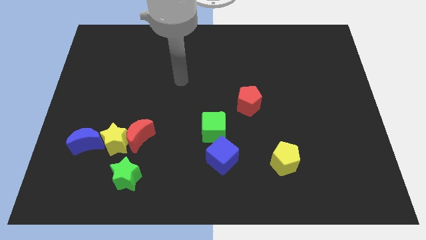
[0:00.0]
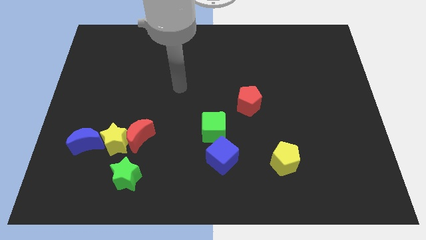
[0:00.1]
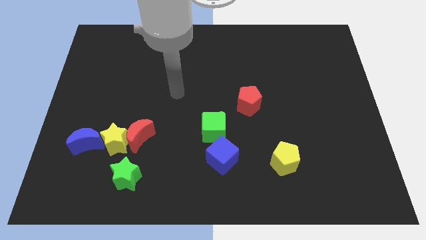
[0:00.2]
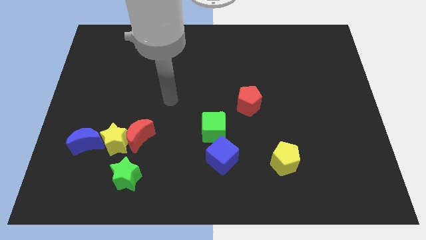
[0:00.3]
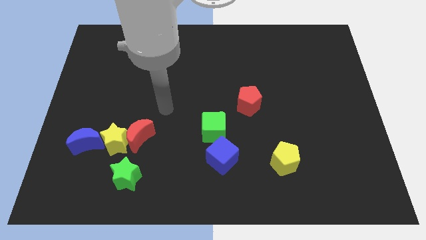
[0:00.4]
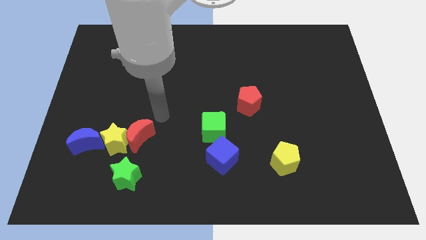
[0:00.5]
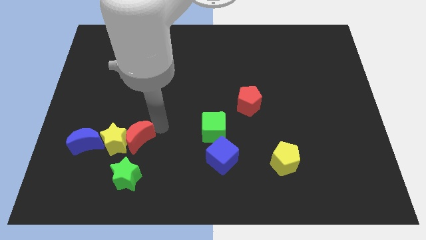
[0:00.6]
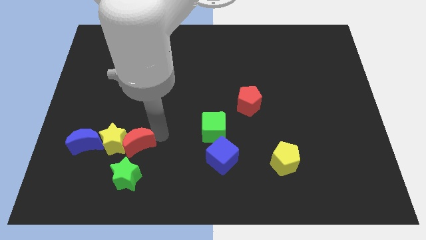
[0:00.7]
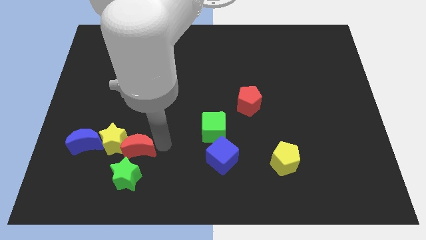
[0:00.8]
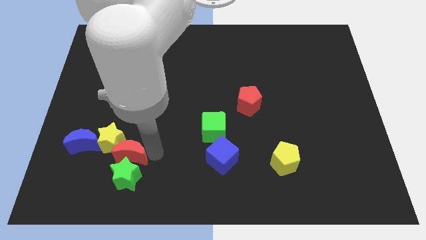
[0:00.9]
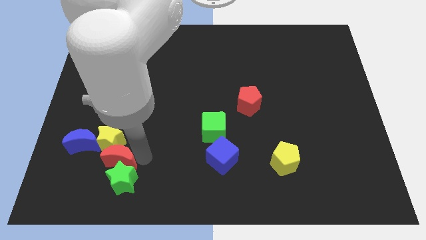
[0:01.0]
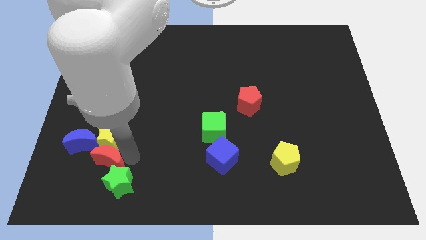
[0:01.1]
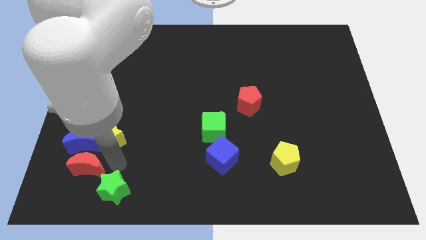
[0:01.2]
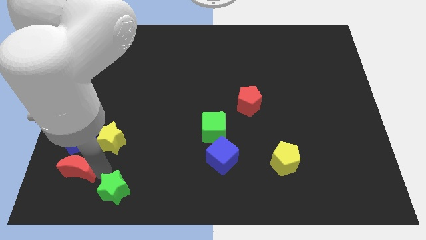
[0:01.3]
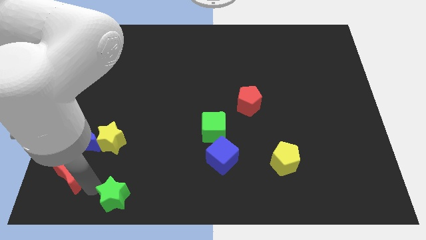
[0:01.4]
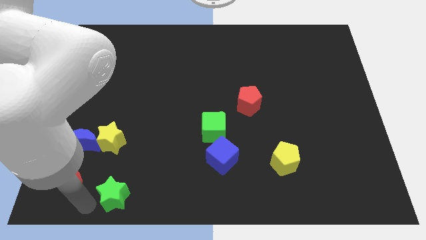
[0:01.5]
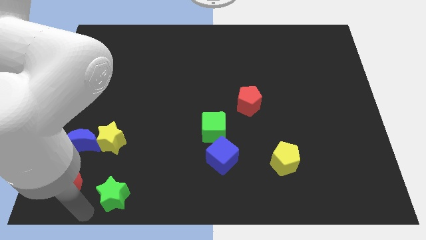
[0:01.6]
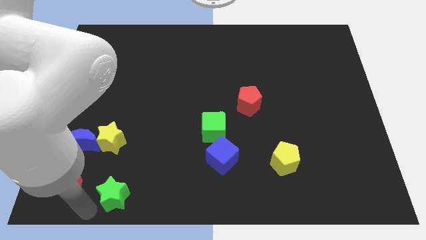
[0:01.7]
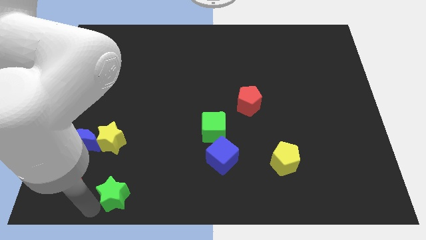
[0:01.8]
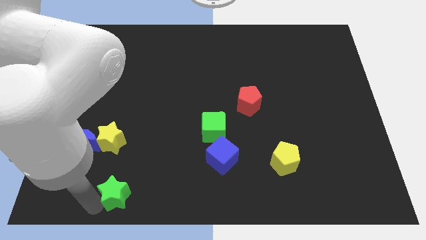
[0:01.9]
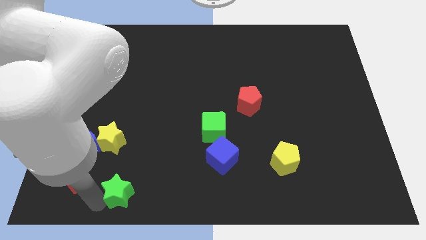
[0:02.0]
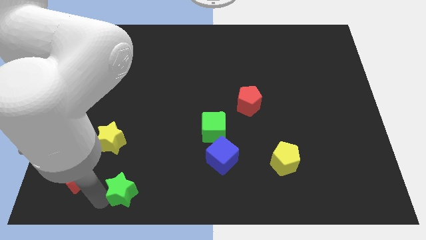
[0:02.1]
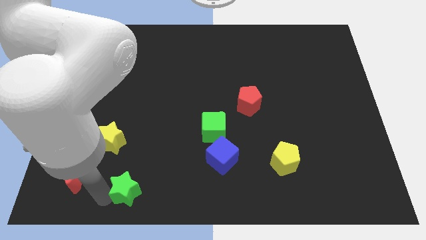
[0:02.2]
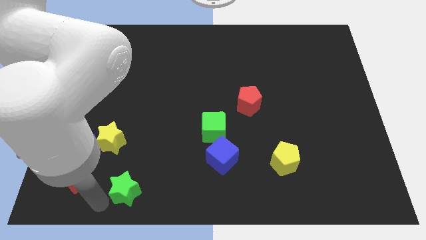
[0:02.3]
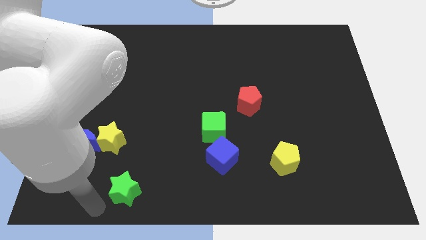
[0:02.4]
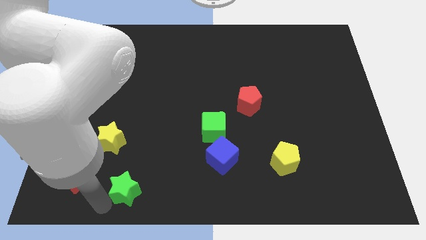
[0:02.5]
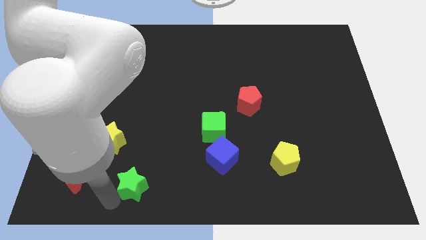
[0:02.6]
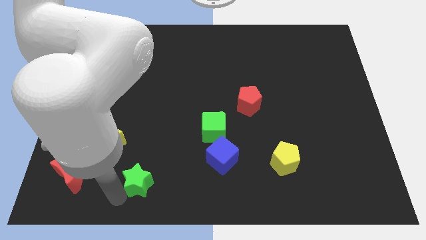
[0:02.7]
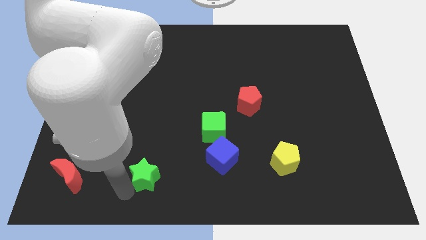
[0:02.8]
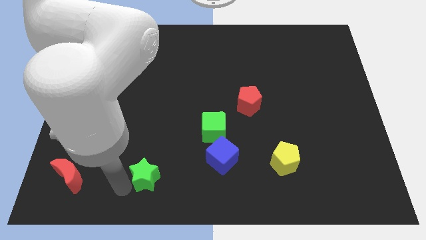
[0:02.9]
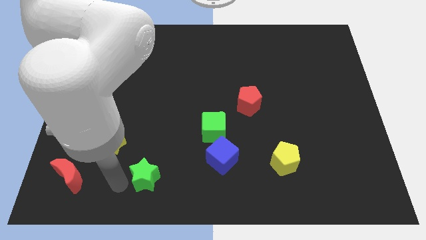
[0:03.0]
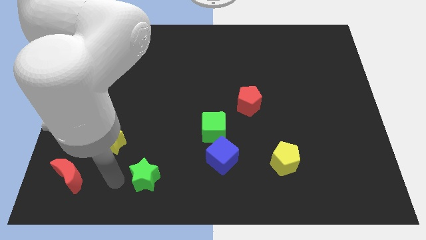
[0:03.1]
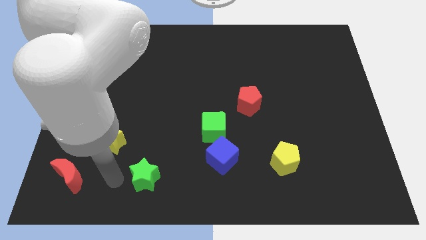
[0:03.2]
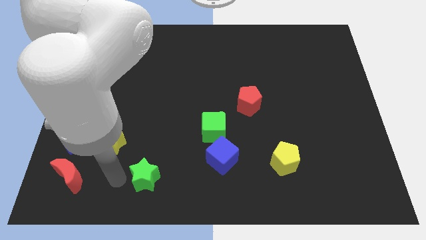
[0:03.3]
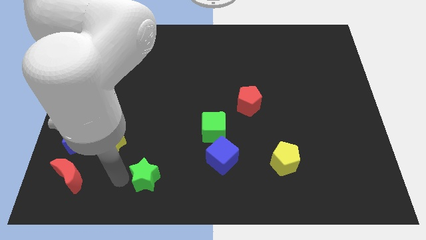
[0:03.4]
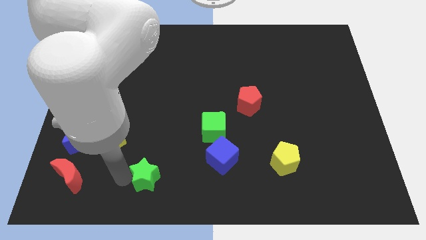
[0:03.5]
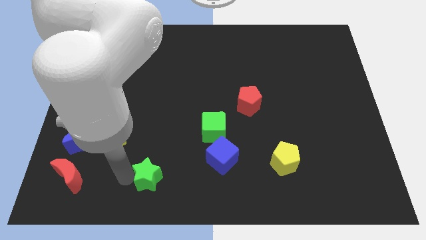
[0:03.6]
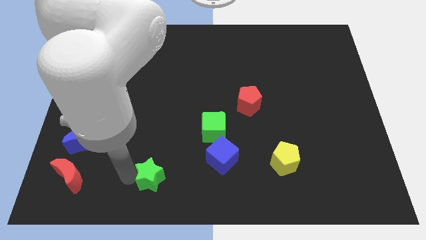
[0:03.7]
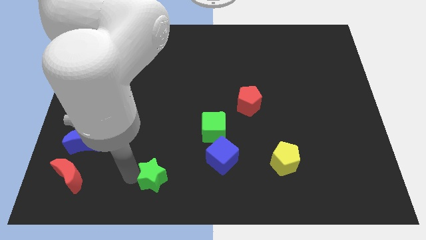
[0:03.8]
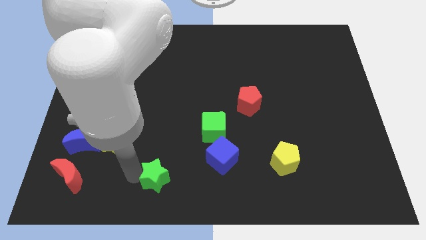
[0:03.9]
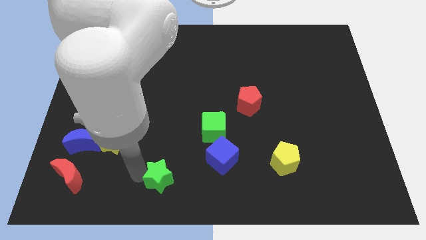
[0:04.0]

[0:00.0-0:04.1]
slightly move the green star right

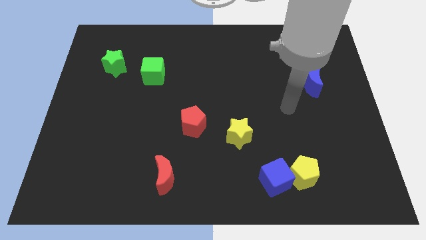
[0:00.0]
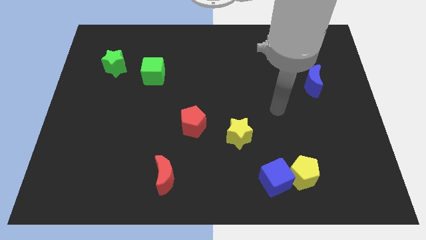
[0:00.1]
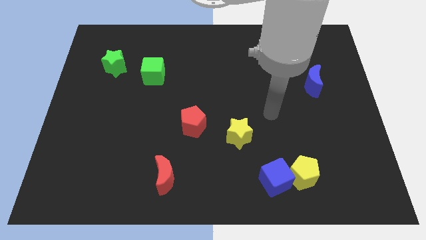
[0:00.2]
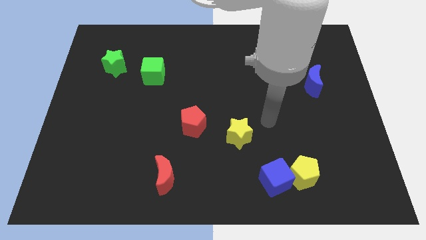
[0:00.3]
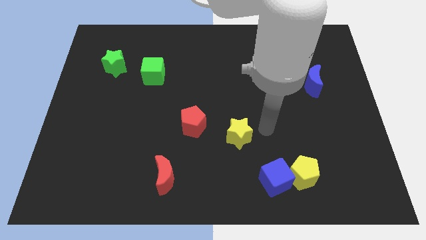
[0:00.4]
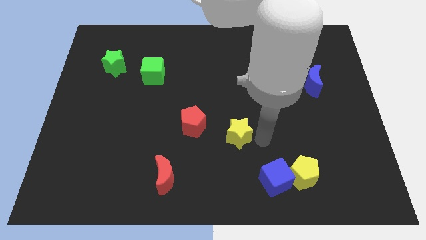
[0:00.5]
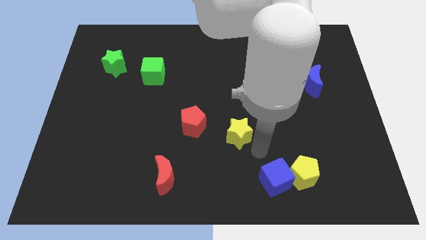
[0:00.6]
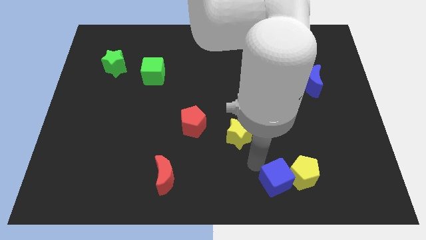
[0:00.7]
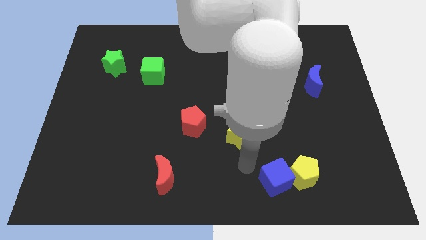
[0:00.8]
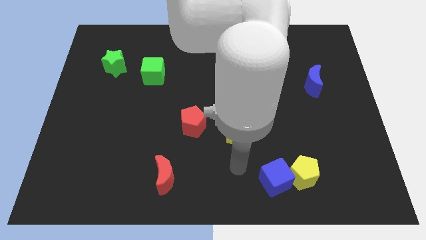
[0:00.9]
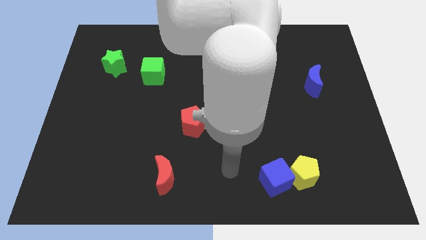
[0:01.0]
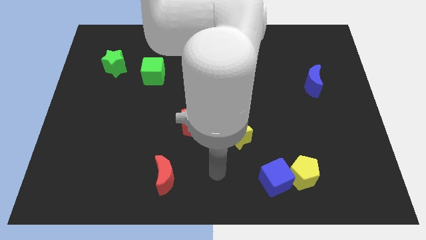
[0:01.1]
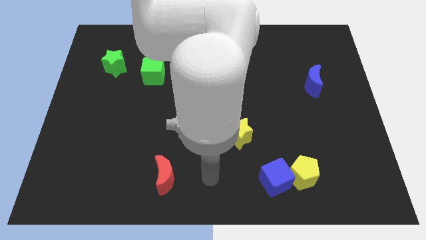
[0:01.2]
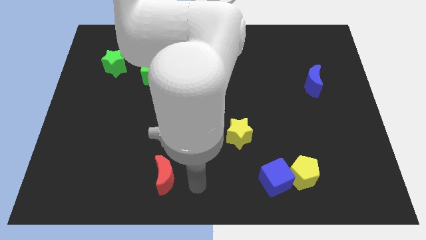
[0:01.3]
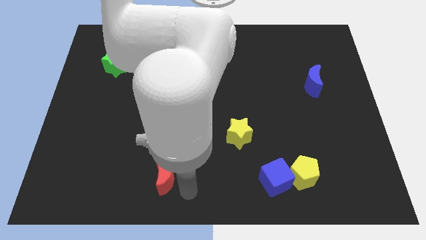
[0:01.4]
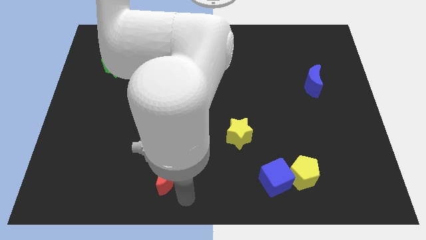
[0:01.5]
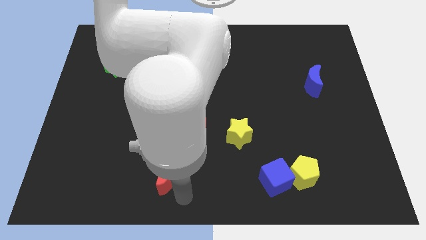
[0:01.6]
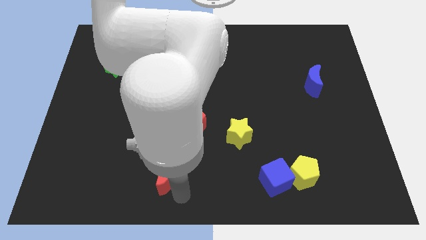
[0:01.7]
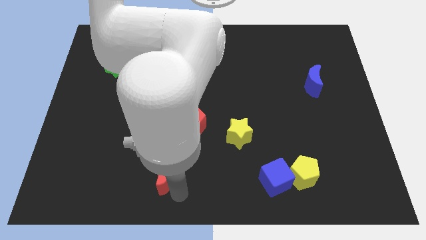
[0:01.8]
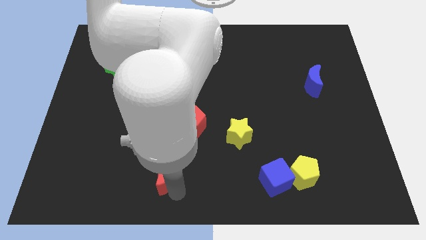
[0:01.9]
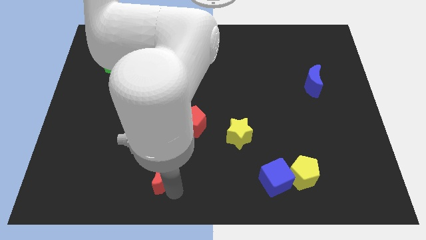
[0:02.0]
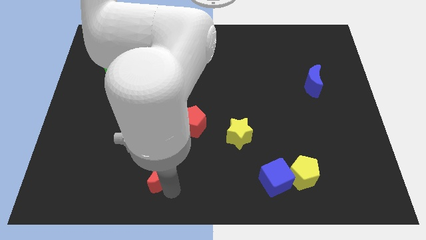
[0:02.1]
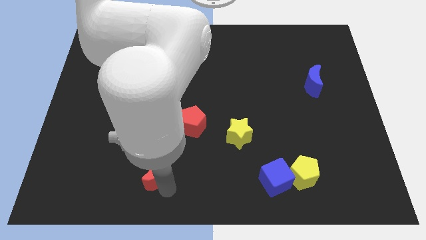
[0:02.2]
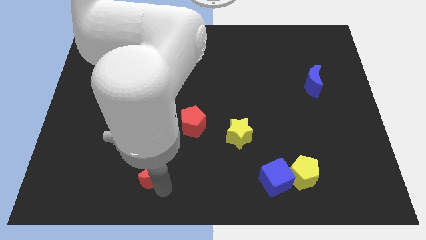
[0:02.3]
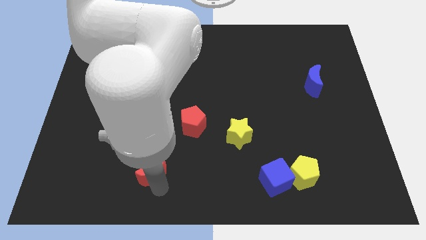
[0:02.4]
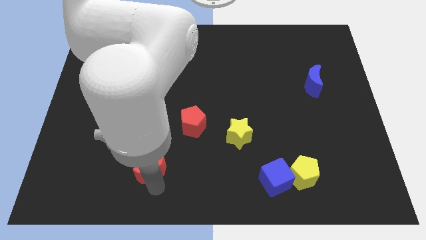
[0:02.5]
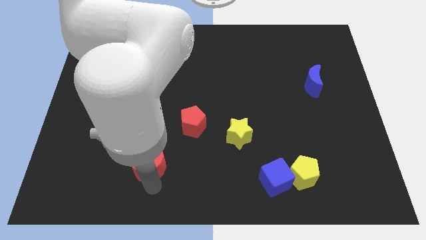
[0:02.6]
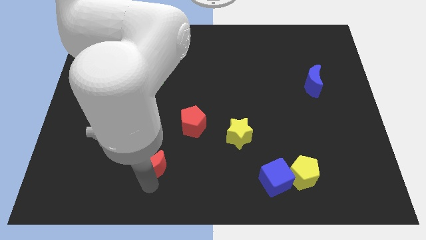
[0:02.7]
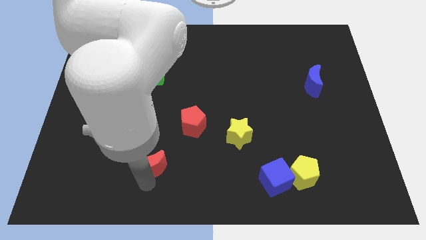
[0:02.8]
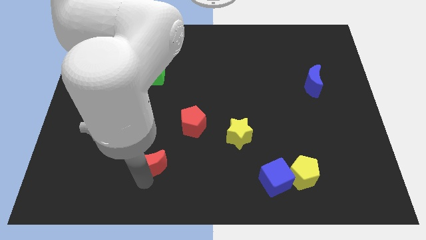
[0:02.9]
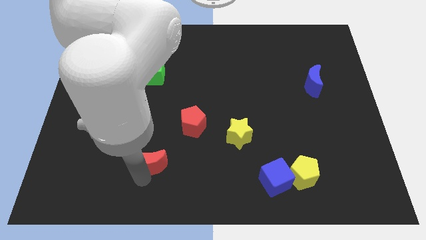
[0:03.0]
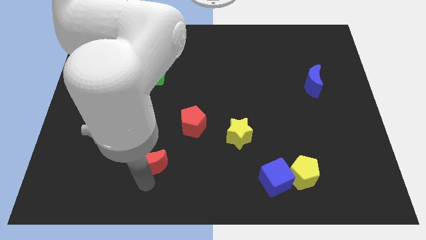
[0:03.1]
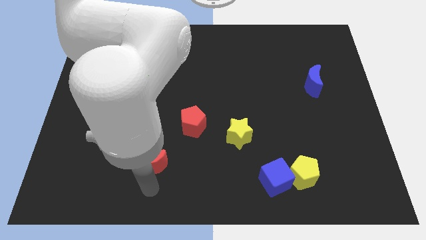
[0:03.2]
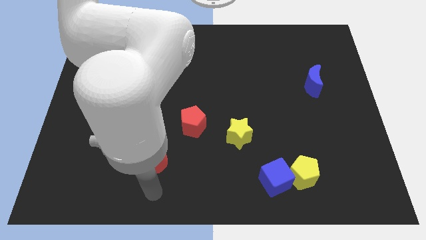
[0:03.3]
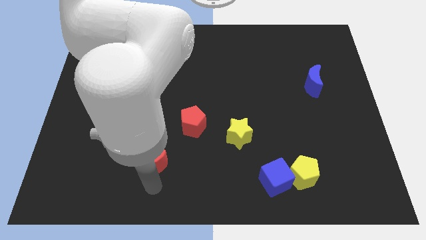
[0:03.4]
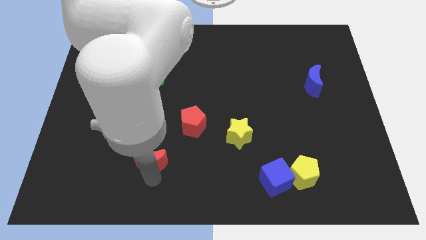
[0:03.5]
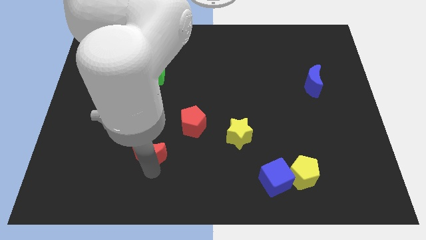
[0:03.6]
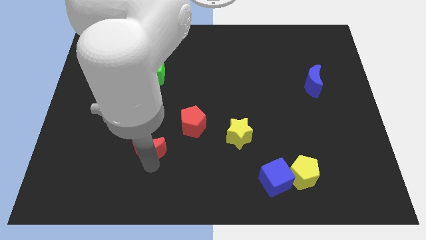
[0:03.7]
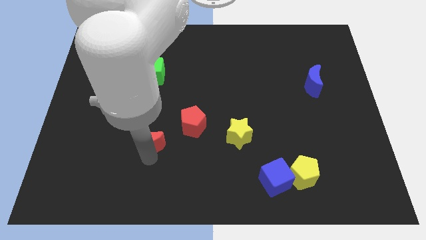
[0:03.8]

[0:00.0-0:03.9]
slide the red moon upwards somewhat

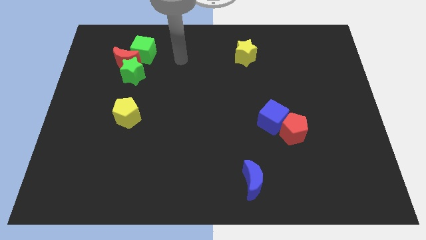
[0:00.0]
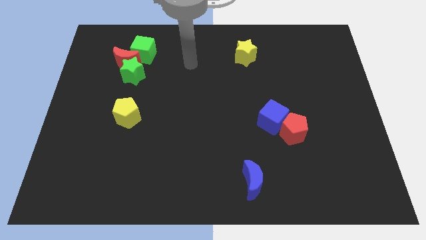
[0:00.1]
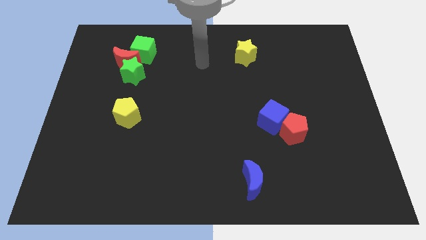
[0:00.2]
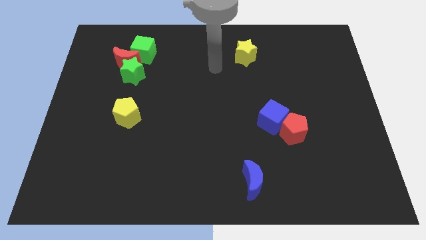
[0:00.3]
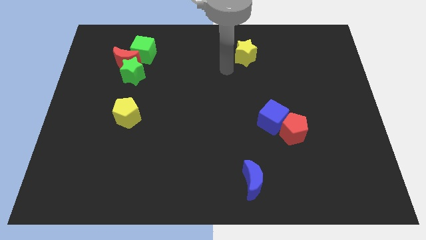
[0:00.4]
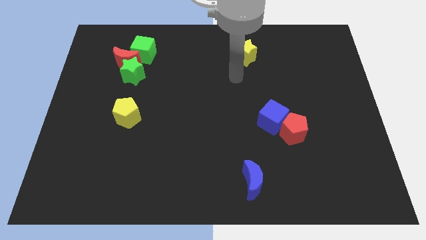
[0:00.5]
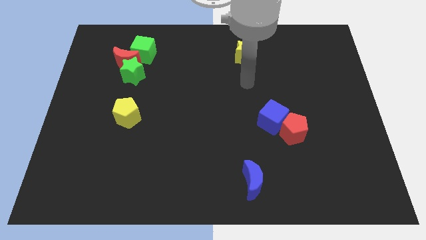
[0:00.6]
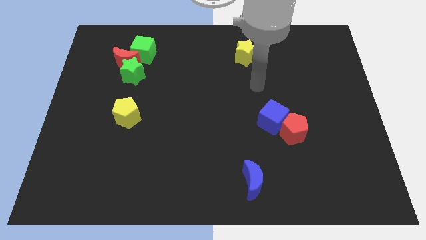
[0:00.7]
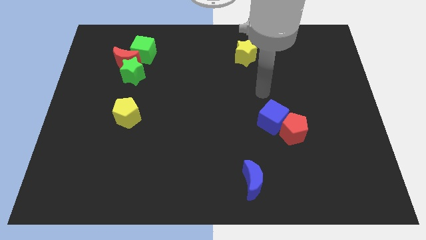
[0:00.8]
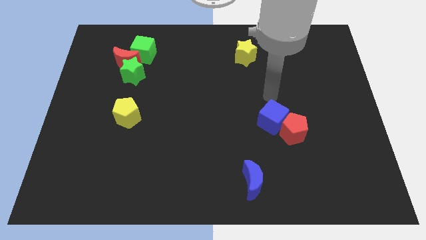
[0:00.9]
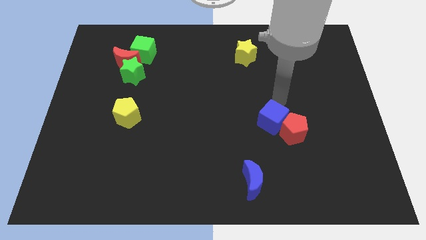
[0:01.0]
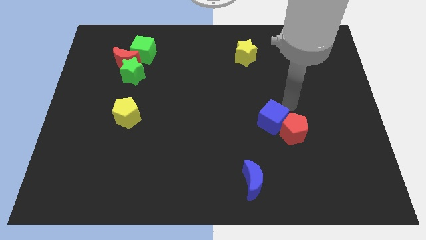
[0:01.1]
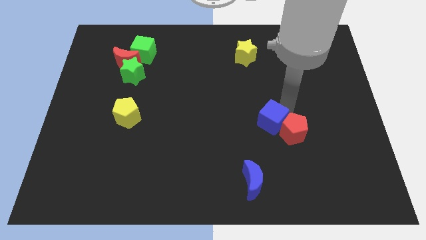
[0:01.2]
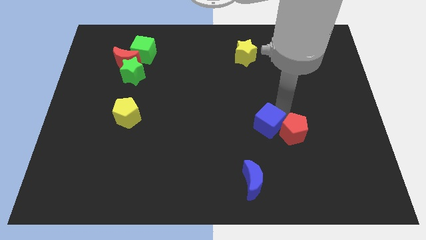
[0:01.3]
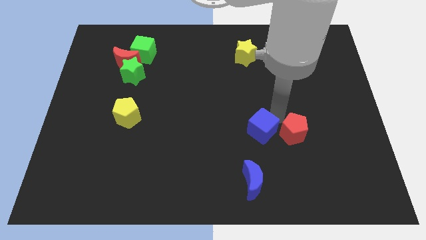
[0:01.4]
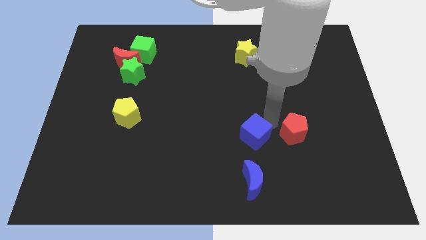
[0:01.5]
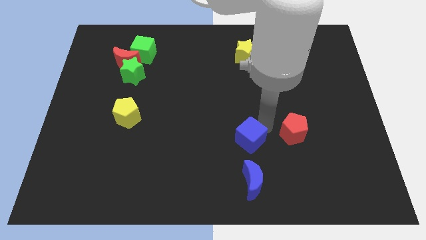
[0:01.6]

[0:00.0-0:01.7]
move the blue cube downwards and then to the left slightly
